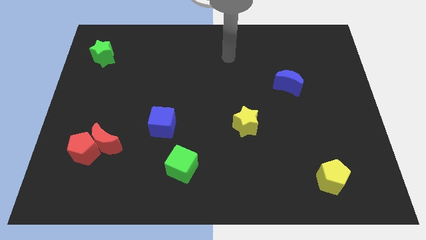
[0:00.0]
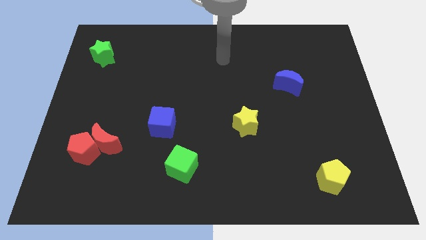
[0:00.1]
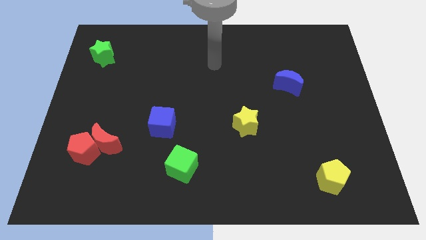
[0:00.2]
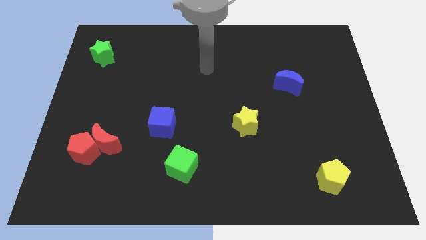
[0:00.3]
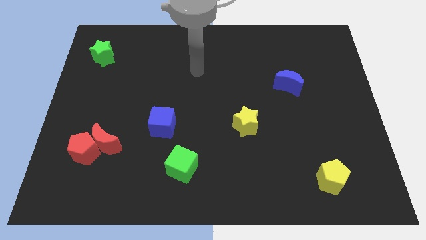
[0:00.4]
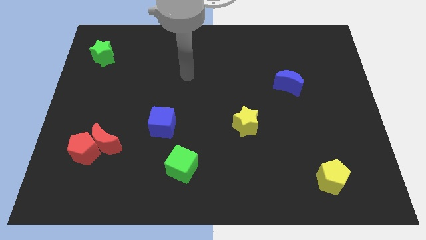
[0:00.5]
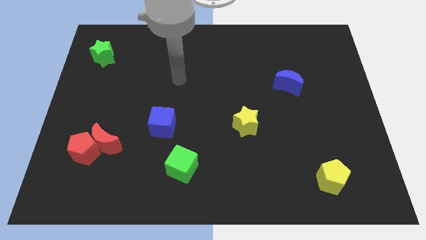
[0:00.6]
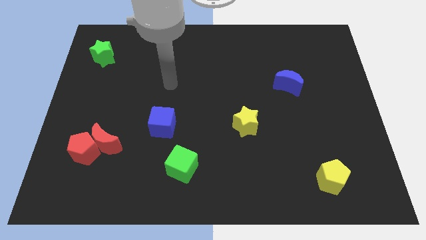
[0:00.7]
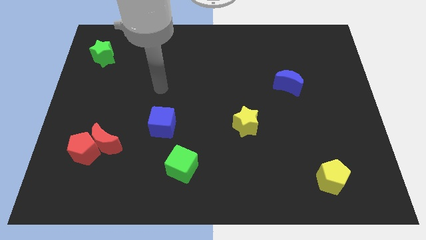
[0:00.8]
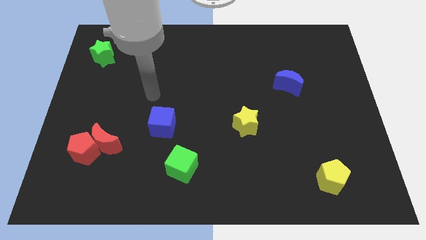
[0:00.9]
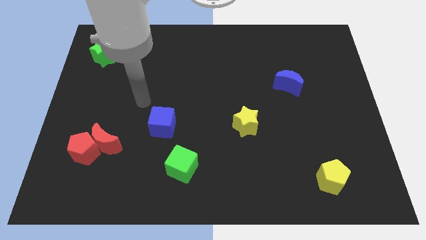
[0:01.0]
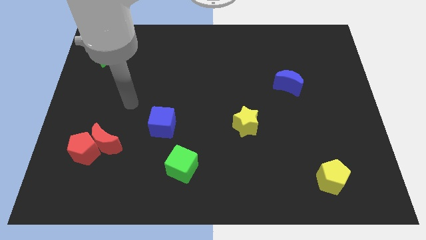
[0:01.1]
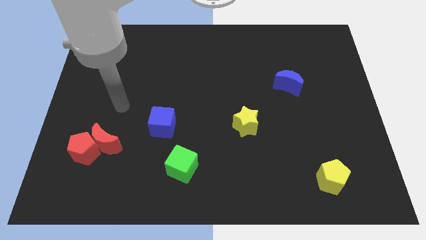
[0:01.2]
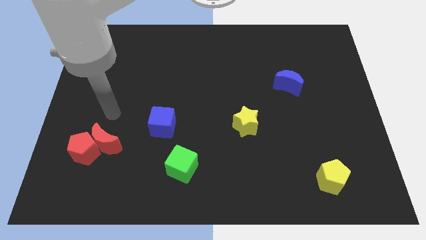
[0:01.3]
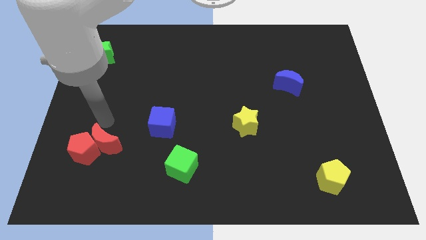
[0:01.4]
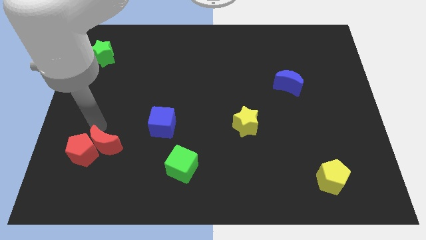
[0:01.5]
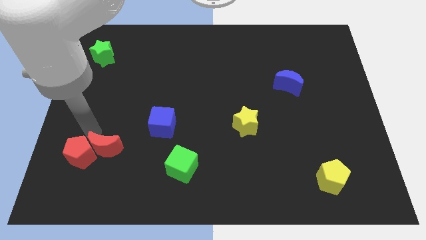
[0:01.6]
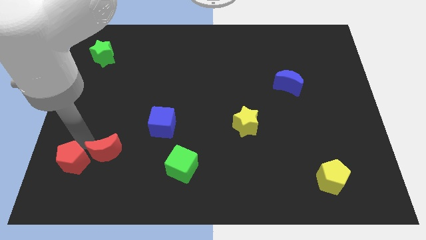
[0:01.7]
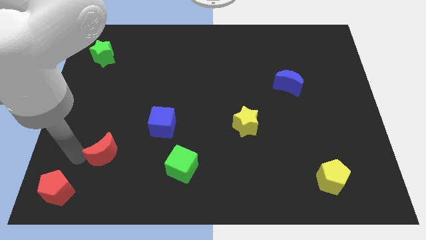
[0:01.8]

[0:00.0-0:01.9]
pull the red moon apart from the red pentagon

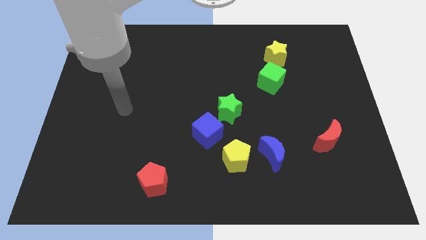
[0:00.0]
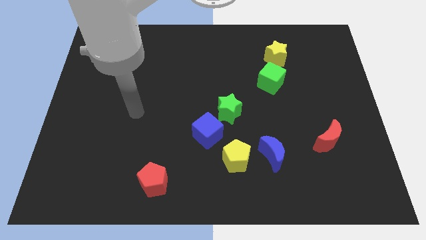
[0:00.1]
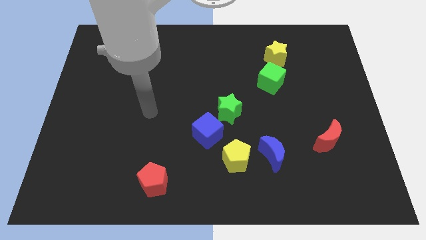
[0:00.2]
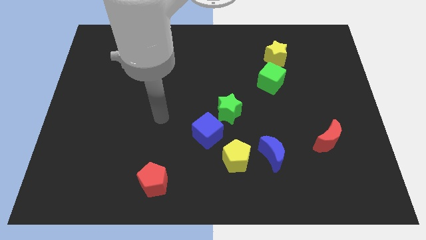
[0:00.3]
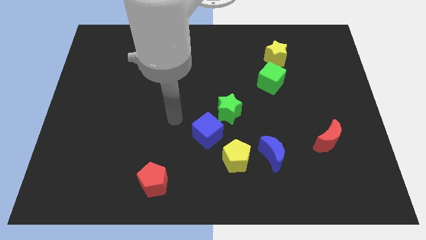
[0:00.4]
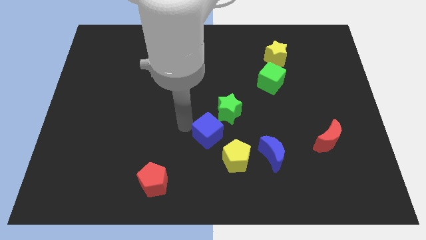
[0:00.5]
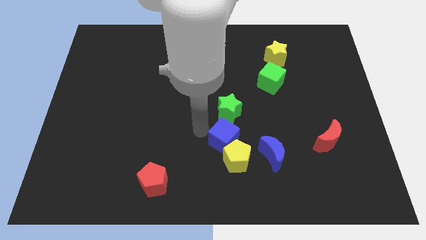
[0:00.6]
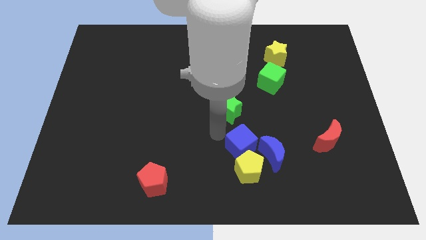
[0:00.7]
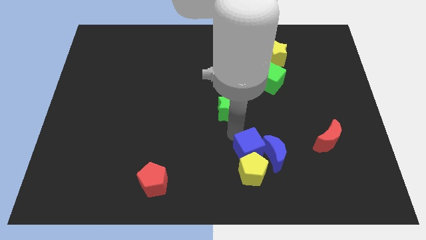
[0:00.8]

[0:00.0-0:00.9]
move the green star away from the blue cube

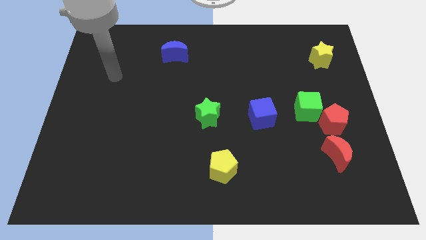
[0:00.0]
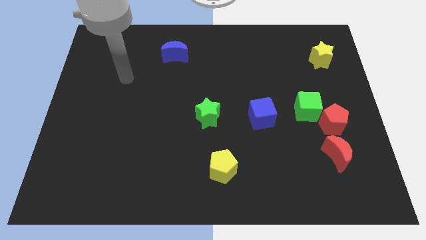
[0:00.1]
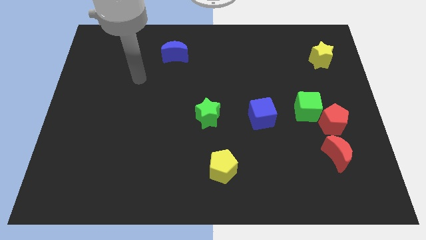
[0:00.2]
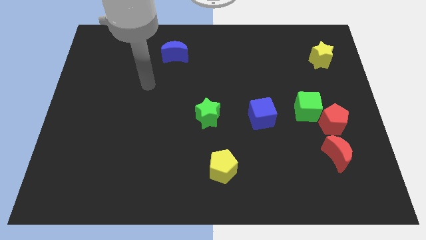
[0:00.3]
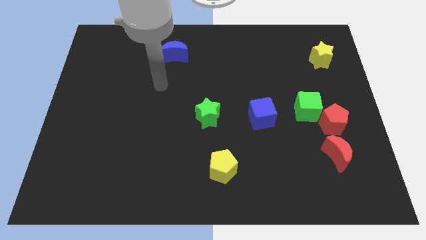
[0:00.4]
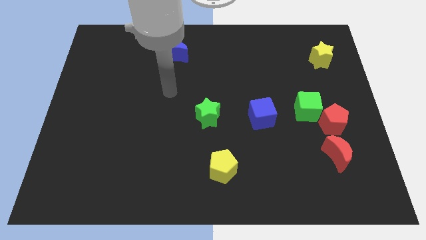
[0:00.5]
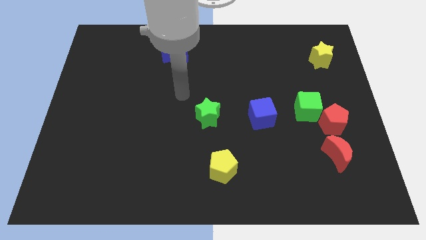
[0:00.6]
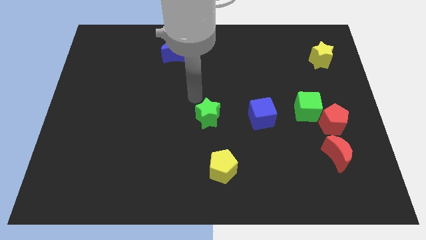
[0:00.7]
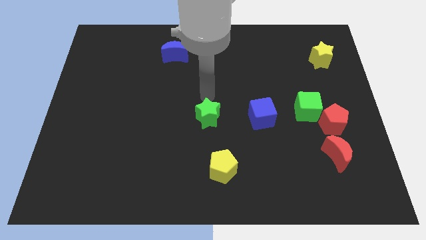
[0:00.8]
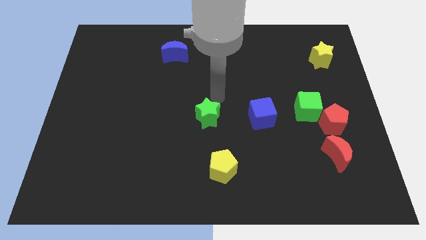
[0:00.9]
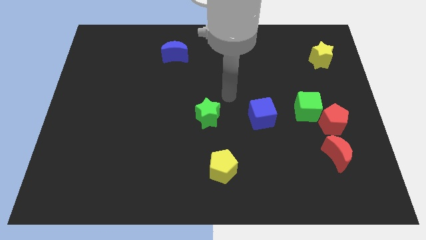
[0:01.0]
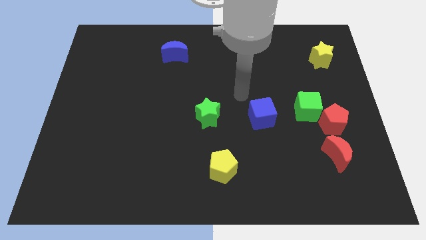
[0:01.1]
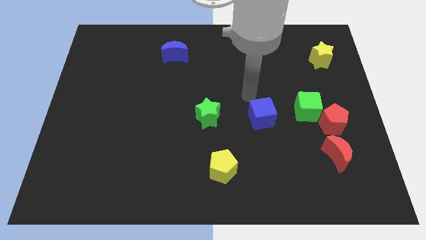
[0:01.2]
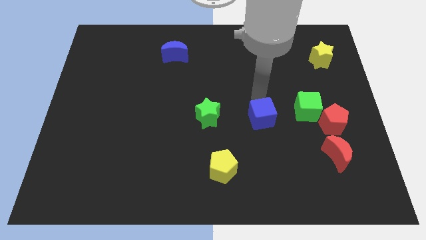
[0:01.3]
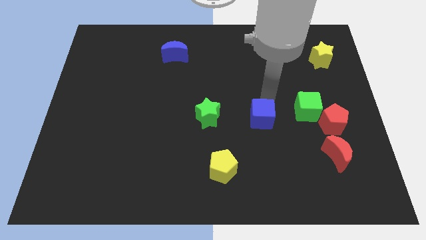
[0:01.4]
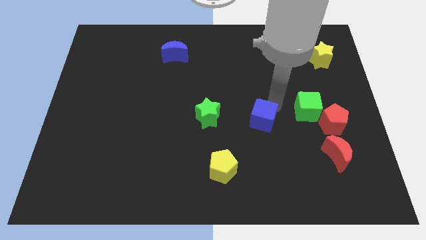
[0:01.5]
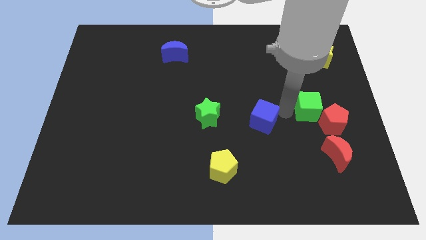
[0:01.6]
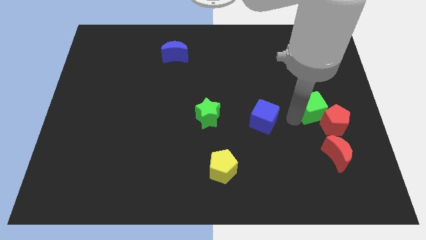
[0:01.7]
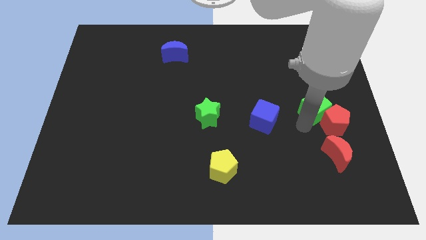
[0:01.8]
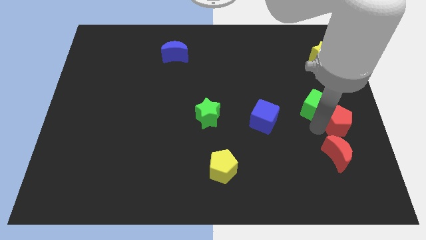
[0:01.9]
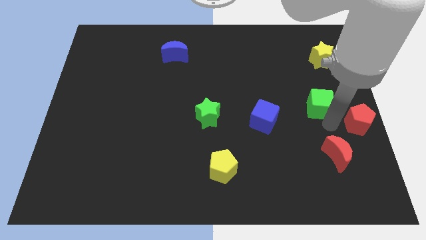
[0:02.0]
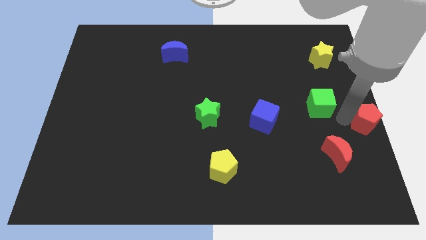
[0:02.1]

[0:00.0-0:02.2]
pull the green cube apart from the red pentagon

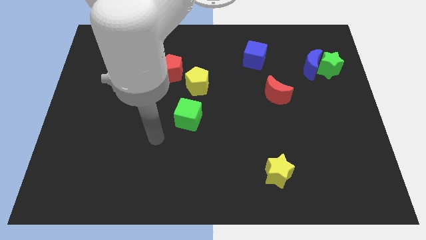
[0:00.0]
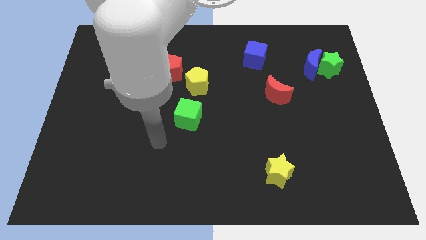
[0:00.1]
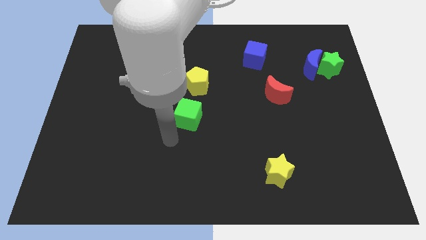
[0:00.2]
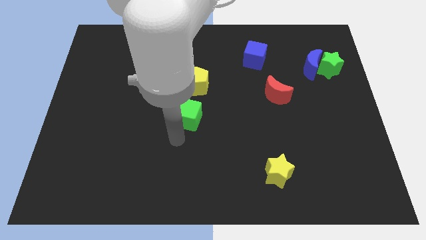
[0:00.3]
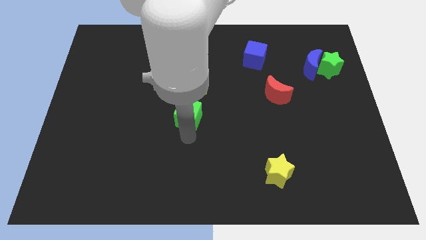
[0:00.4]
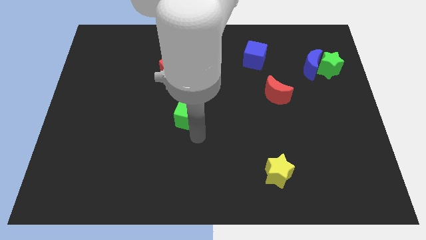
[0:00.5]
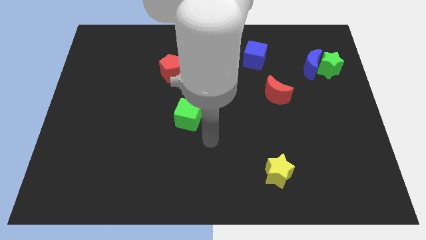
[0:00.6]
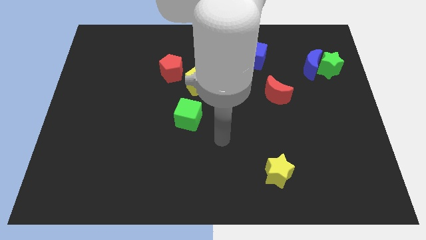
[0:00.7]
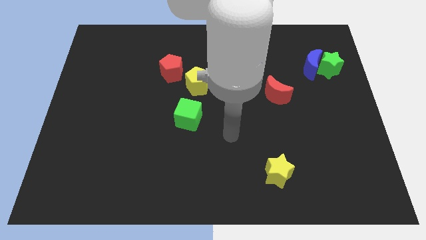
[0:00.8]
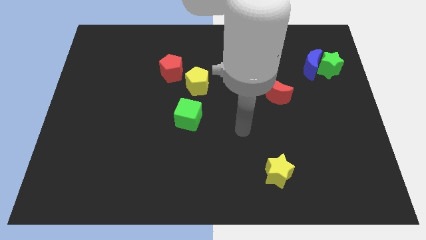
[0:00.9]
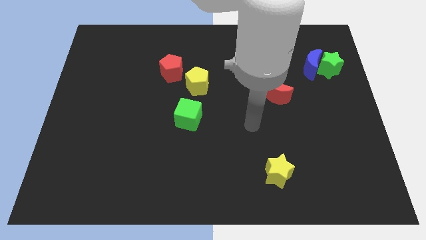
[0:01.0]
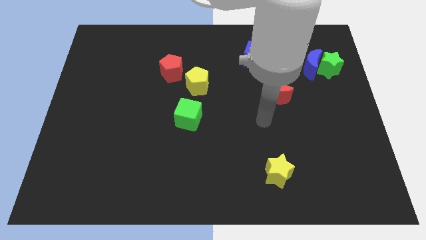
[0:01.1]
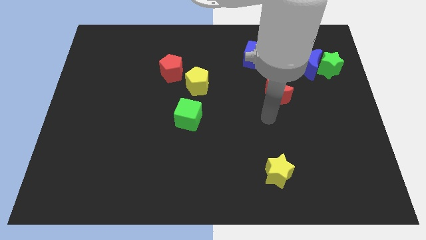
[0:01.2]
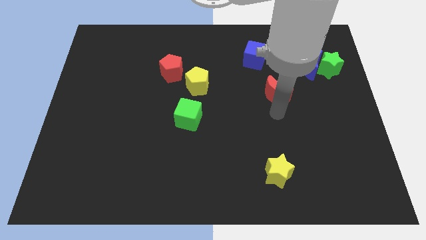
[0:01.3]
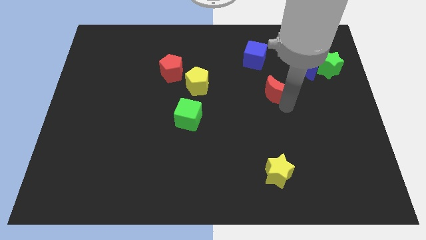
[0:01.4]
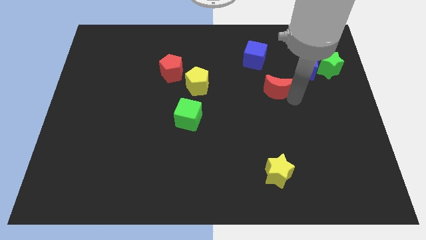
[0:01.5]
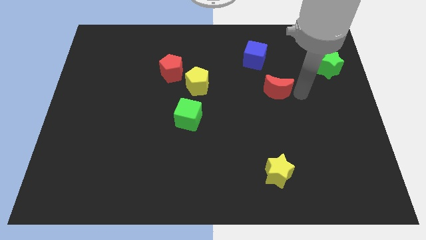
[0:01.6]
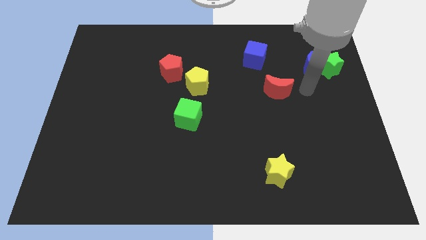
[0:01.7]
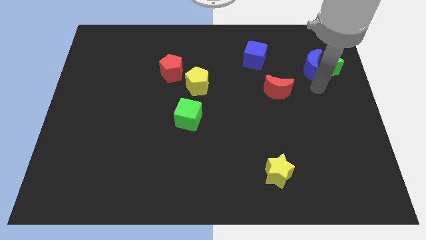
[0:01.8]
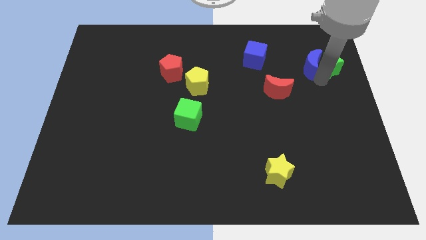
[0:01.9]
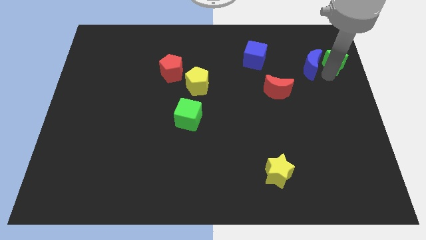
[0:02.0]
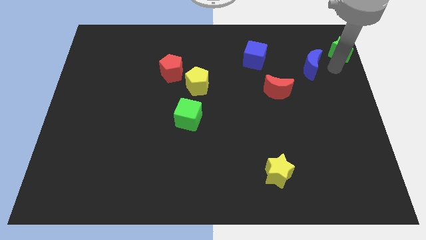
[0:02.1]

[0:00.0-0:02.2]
pull the blue moon apart from the green star

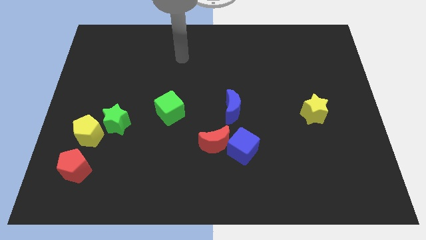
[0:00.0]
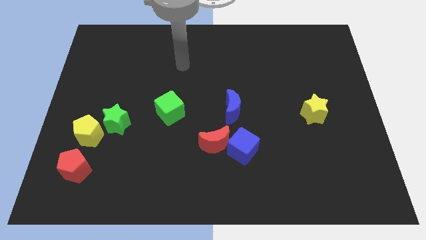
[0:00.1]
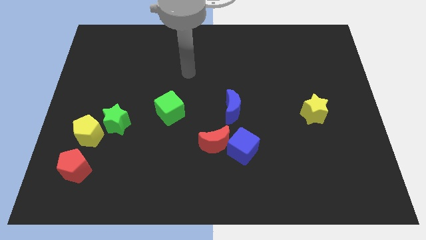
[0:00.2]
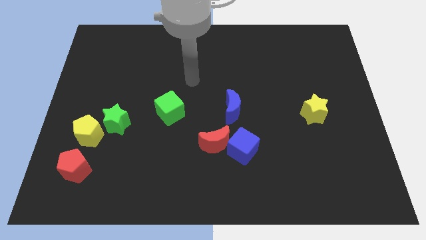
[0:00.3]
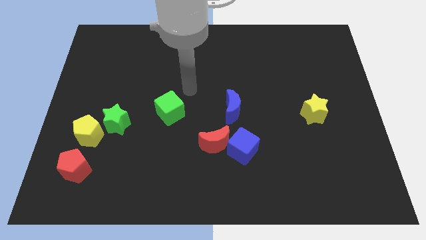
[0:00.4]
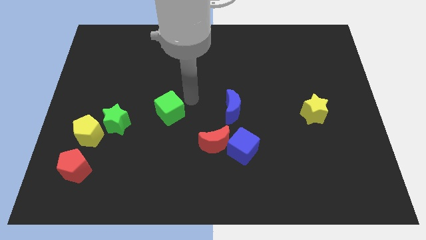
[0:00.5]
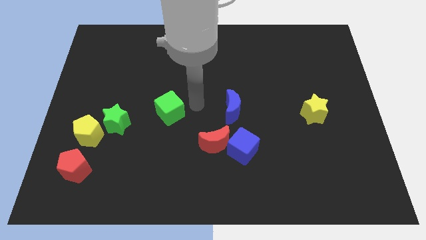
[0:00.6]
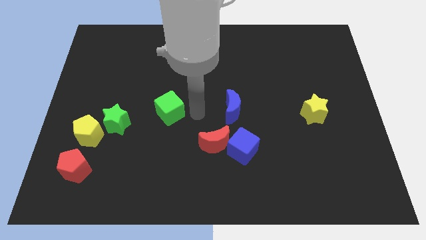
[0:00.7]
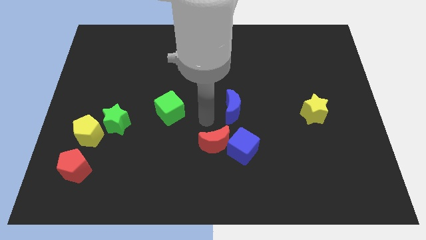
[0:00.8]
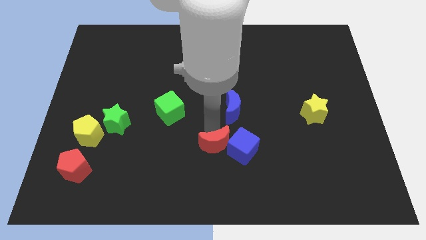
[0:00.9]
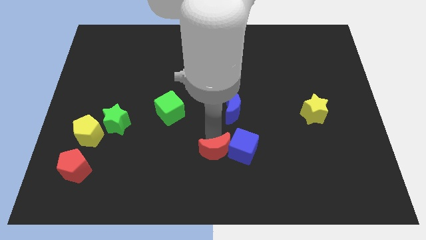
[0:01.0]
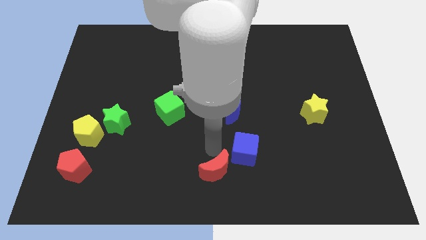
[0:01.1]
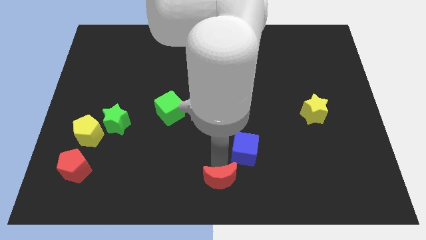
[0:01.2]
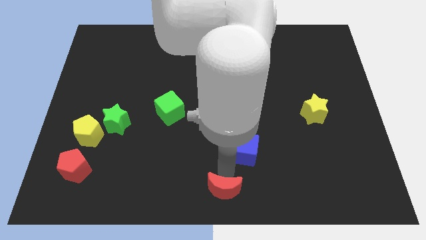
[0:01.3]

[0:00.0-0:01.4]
move the blue cube away from the red moon

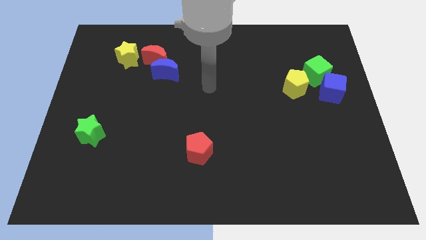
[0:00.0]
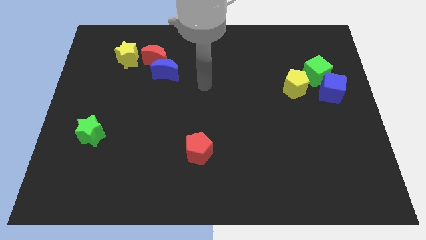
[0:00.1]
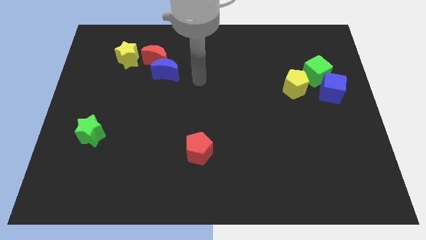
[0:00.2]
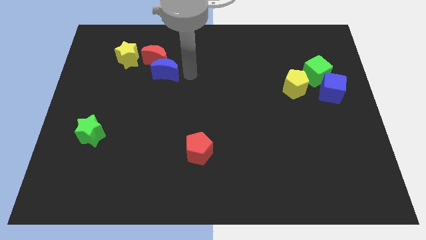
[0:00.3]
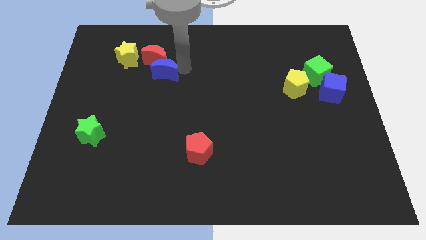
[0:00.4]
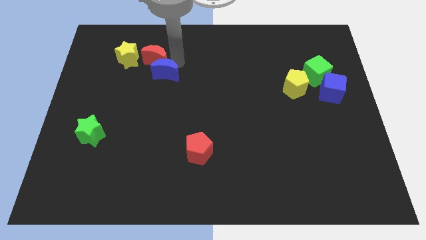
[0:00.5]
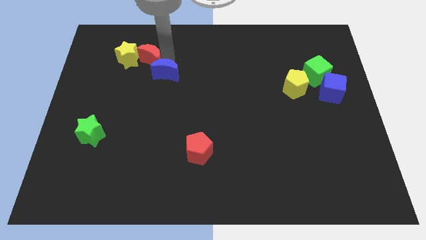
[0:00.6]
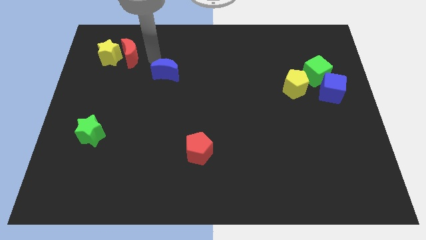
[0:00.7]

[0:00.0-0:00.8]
pull the blue moon apart from the red moon
